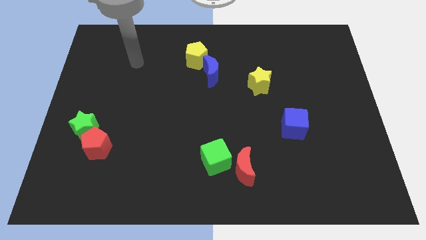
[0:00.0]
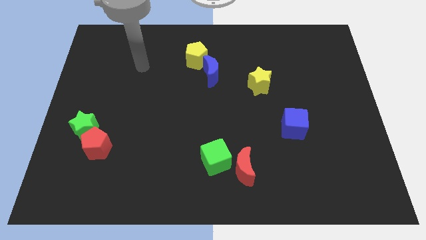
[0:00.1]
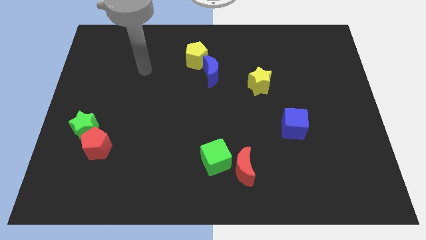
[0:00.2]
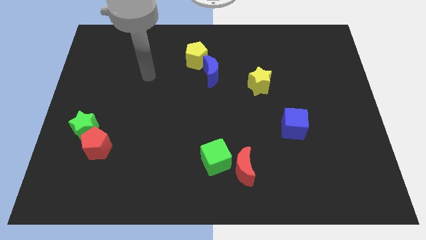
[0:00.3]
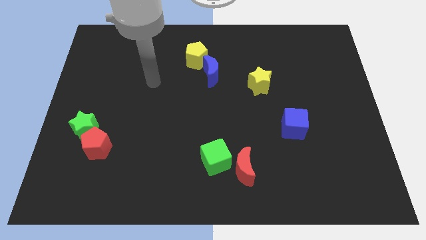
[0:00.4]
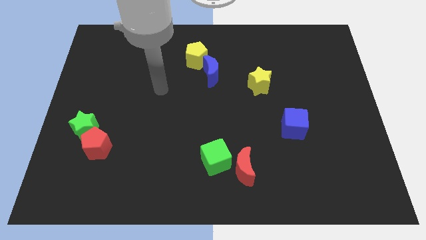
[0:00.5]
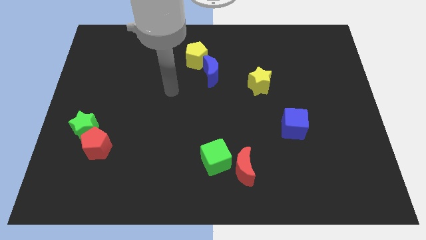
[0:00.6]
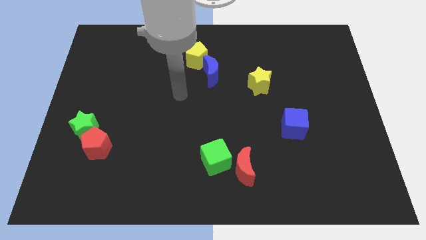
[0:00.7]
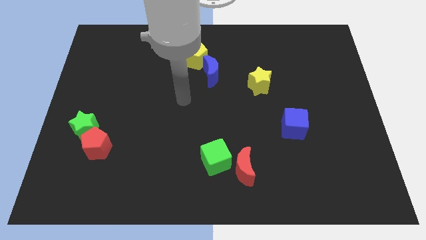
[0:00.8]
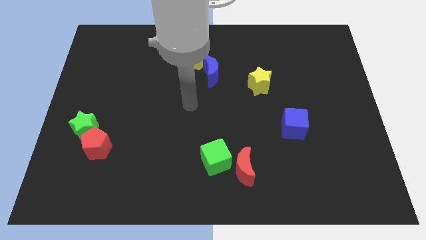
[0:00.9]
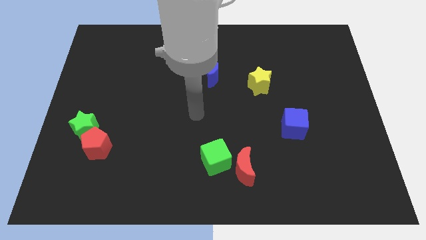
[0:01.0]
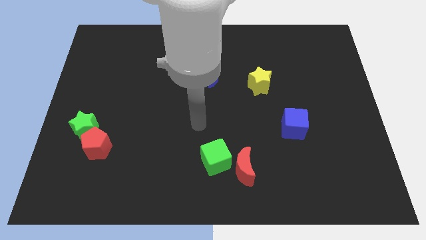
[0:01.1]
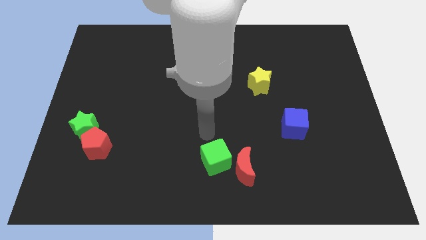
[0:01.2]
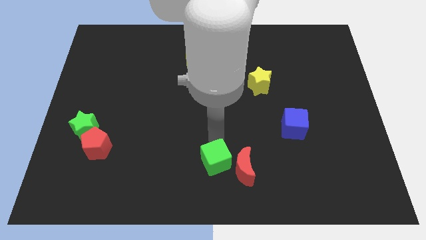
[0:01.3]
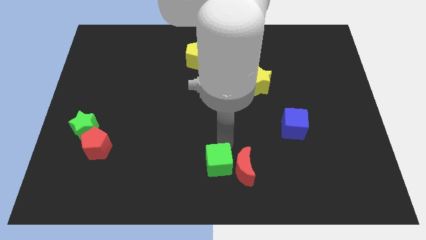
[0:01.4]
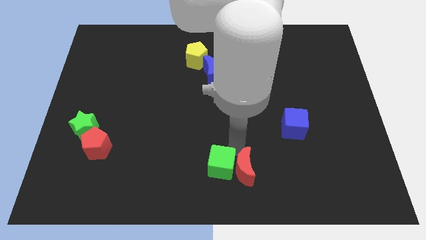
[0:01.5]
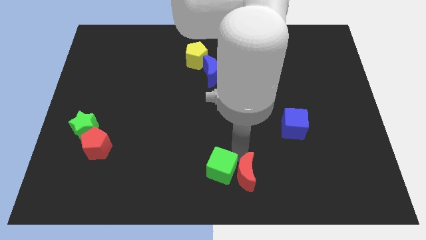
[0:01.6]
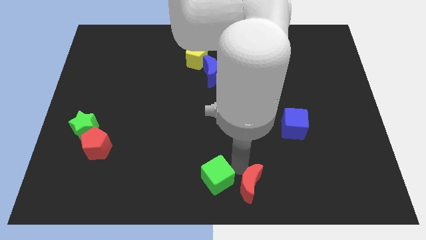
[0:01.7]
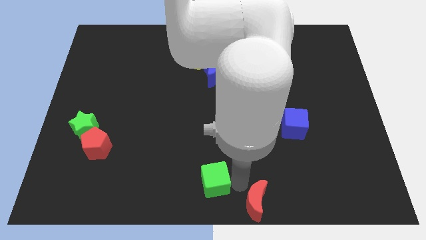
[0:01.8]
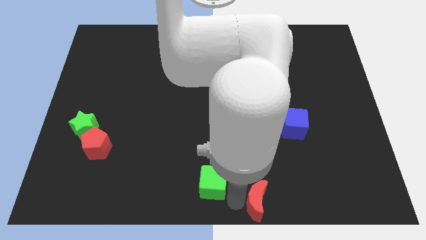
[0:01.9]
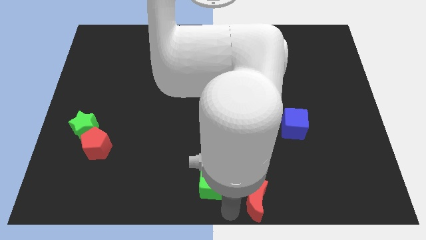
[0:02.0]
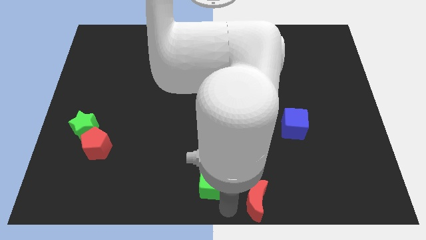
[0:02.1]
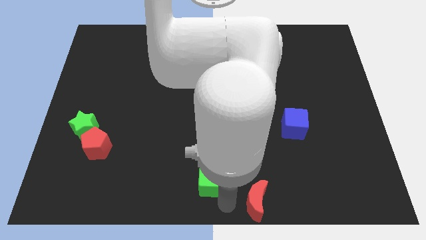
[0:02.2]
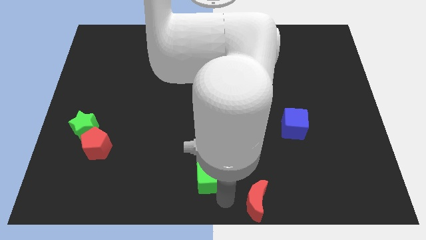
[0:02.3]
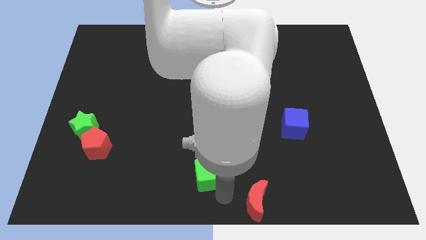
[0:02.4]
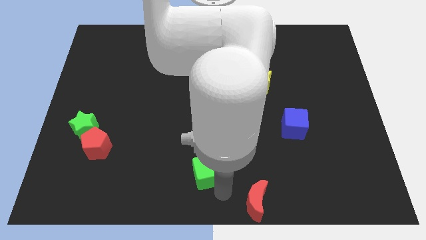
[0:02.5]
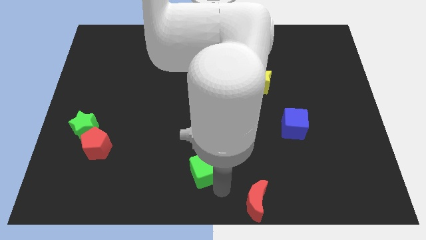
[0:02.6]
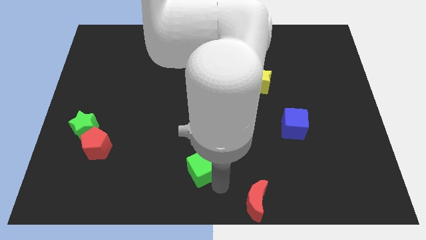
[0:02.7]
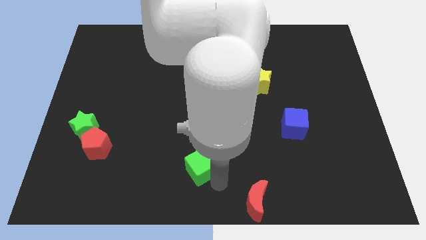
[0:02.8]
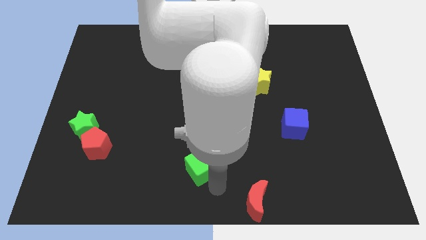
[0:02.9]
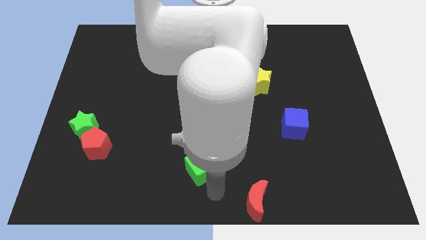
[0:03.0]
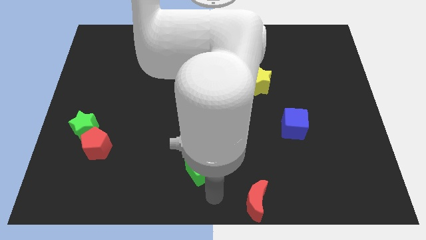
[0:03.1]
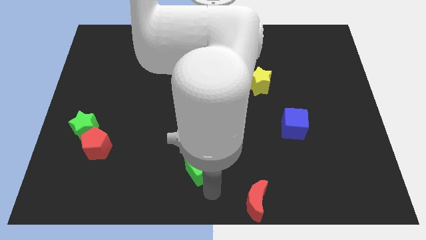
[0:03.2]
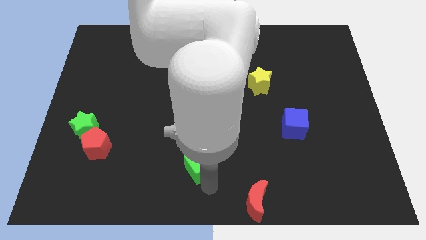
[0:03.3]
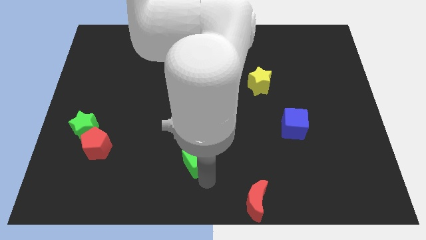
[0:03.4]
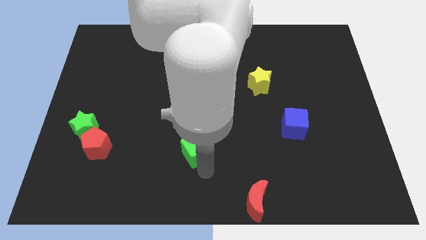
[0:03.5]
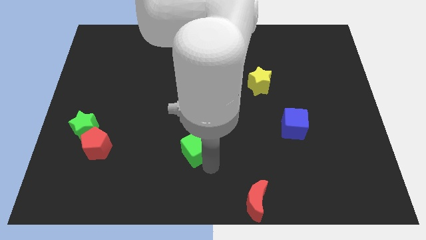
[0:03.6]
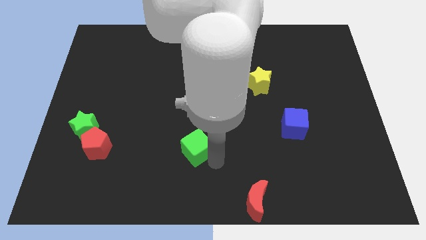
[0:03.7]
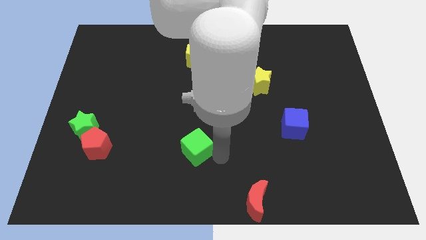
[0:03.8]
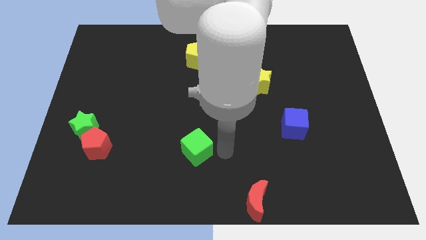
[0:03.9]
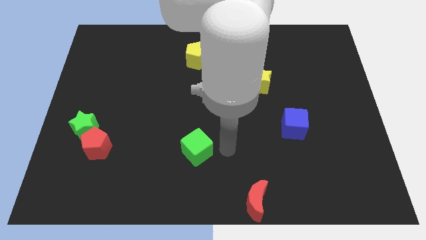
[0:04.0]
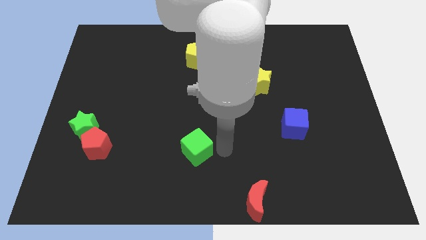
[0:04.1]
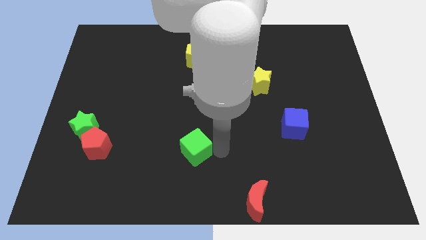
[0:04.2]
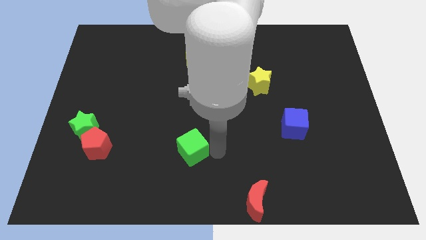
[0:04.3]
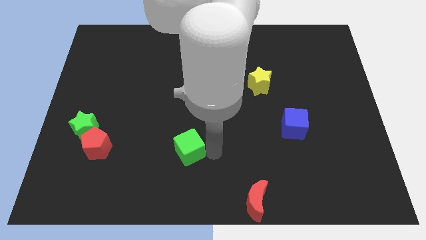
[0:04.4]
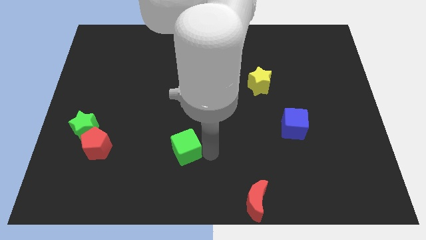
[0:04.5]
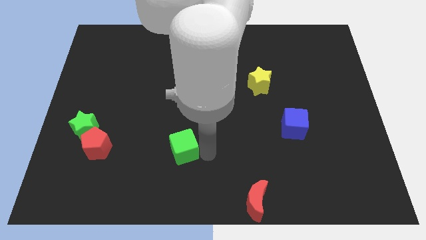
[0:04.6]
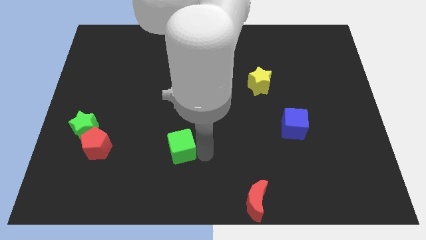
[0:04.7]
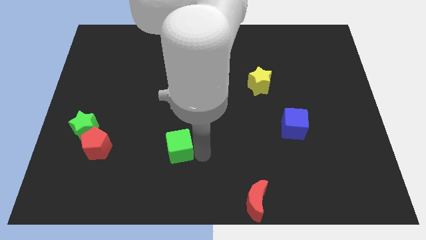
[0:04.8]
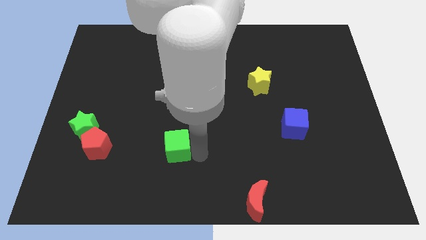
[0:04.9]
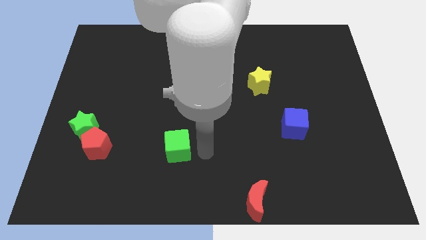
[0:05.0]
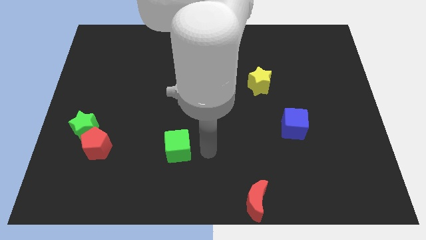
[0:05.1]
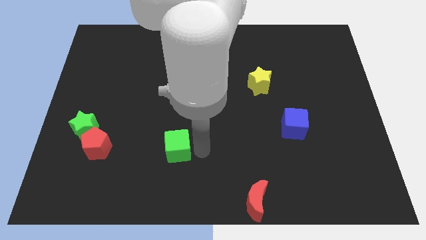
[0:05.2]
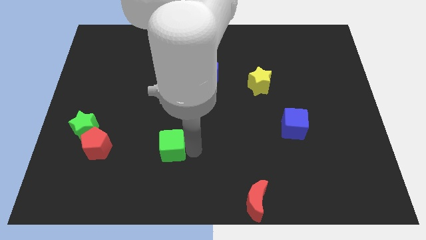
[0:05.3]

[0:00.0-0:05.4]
slide the green cube to the right side of the red pentagon

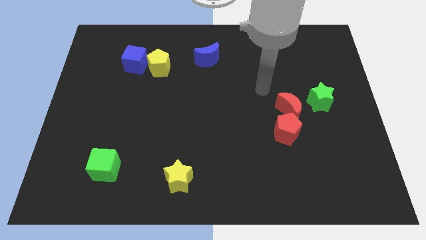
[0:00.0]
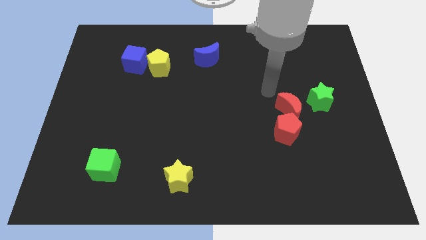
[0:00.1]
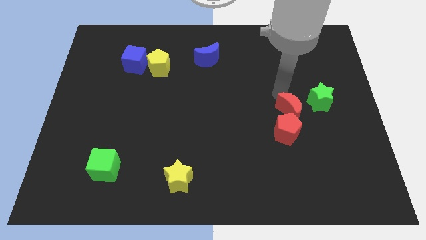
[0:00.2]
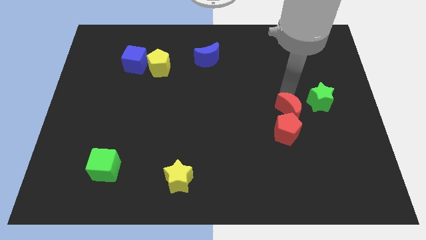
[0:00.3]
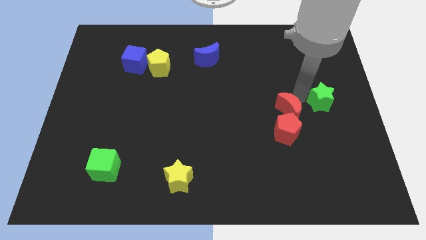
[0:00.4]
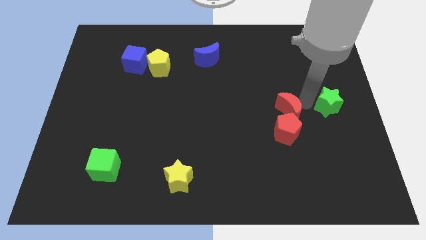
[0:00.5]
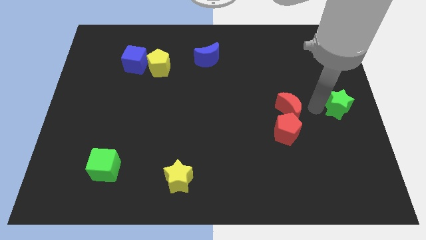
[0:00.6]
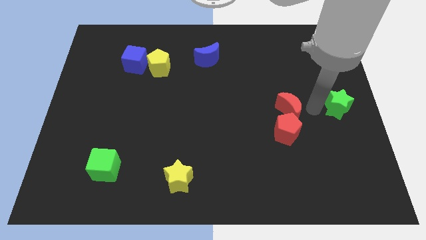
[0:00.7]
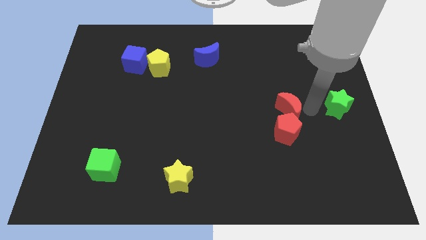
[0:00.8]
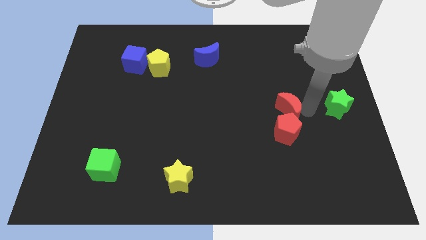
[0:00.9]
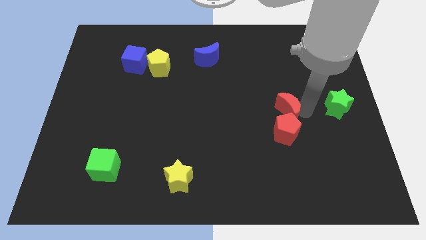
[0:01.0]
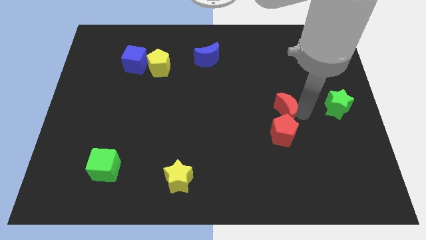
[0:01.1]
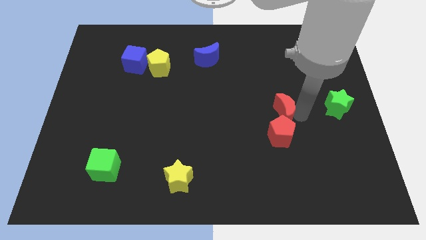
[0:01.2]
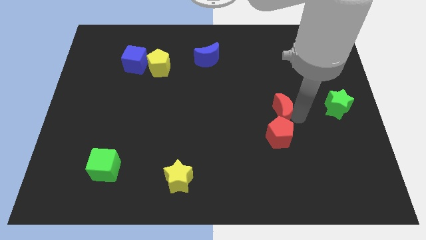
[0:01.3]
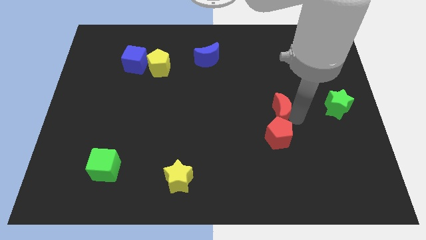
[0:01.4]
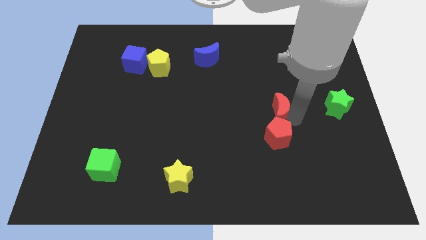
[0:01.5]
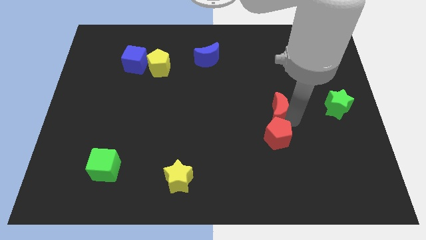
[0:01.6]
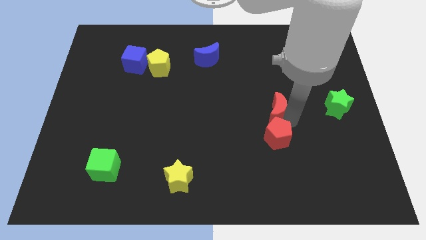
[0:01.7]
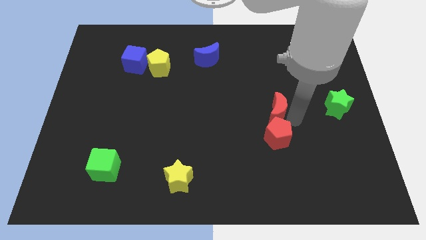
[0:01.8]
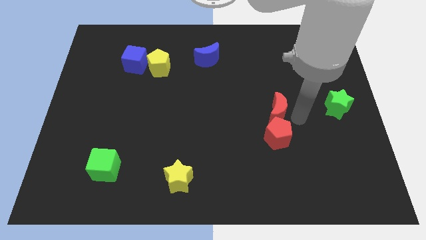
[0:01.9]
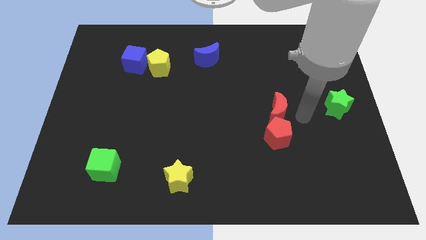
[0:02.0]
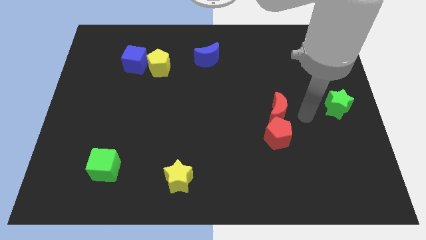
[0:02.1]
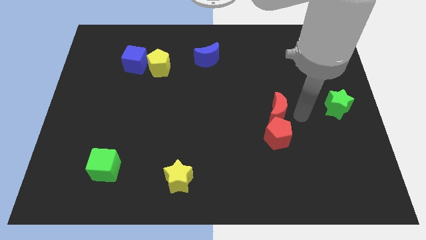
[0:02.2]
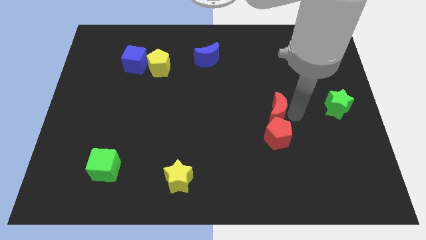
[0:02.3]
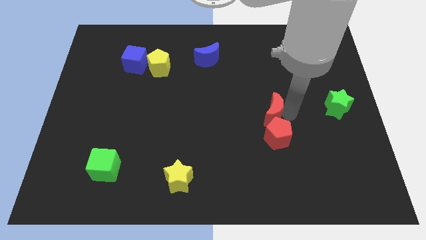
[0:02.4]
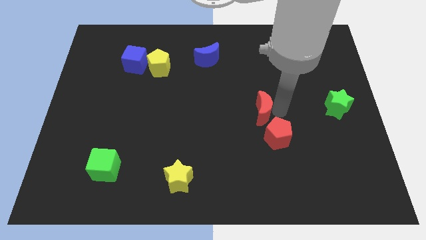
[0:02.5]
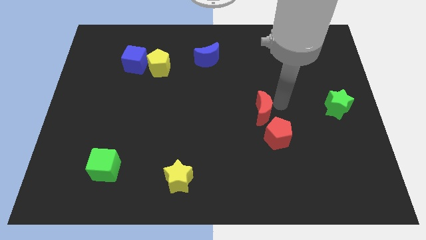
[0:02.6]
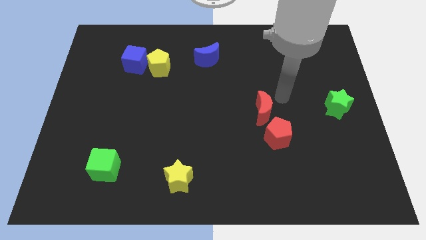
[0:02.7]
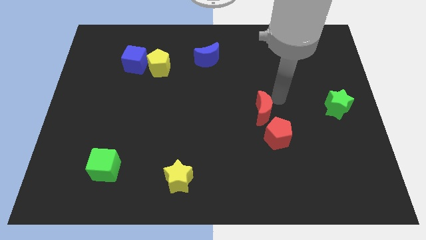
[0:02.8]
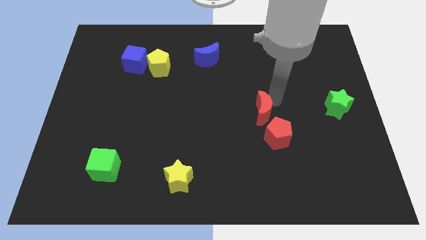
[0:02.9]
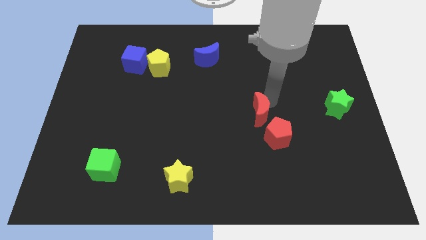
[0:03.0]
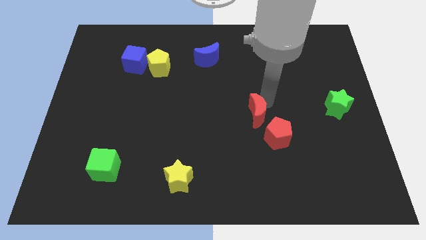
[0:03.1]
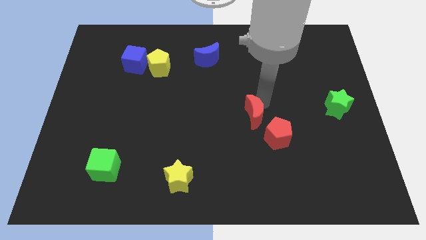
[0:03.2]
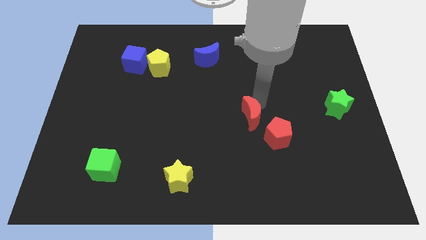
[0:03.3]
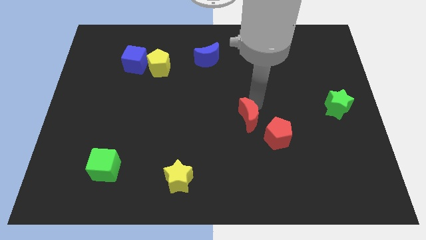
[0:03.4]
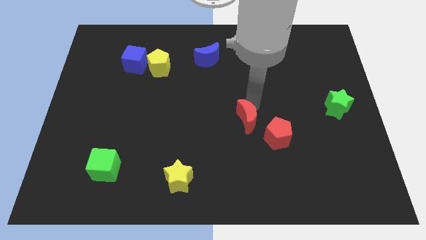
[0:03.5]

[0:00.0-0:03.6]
put the red moon left of the red pentagon
